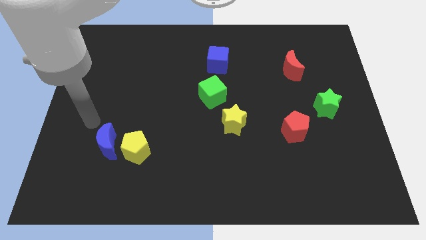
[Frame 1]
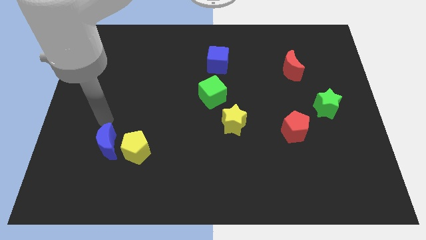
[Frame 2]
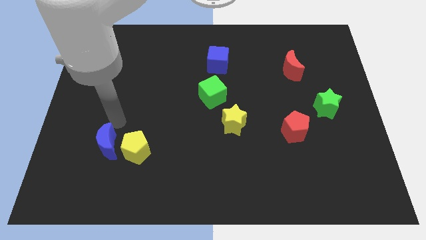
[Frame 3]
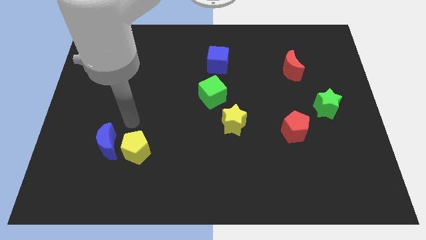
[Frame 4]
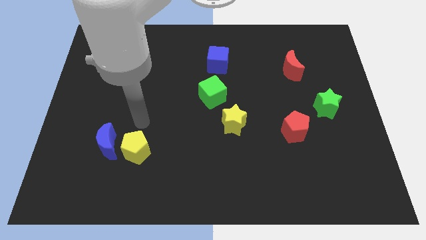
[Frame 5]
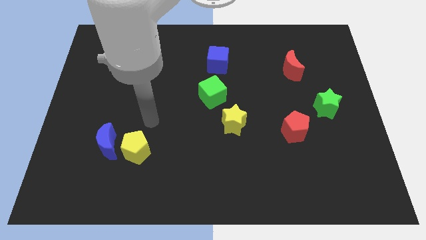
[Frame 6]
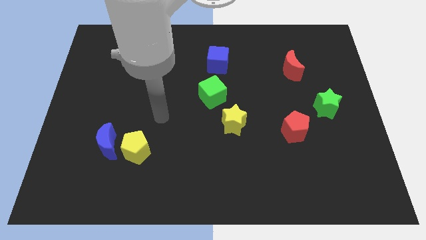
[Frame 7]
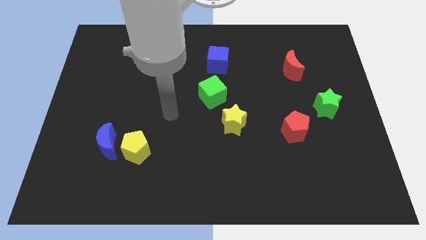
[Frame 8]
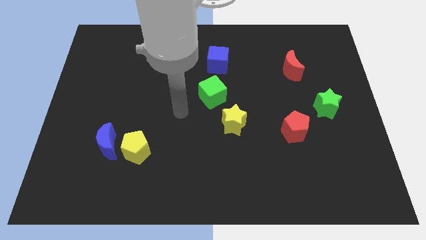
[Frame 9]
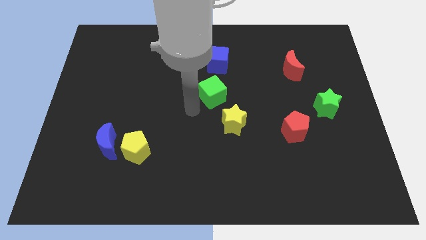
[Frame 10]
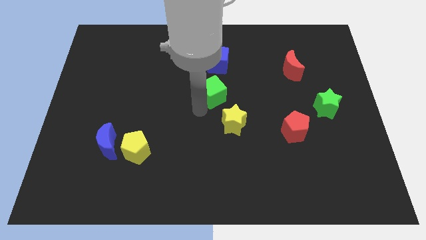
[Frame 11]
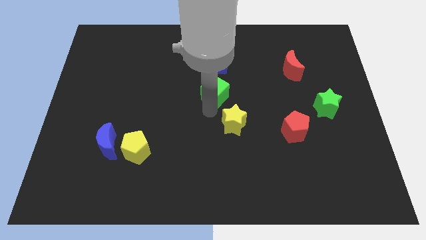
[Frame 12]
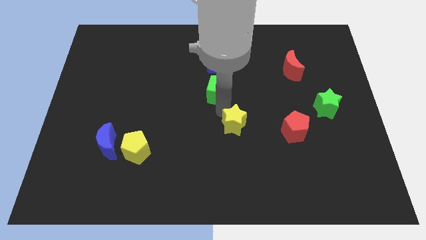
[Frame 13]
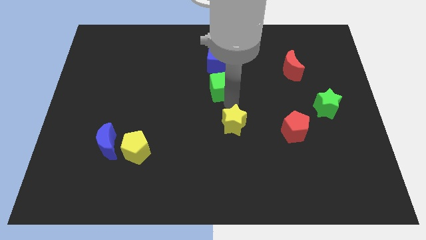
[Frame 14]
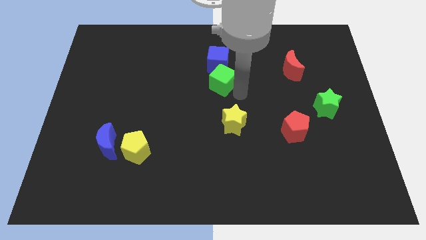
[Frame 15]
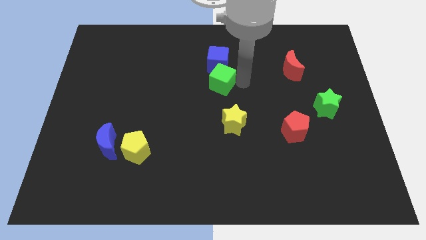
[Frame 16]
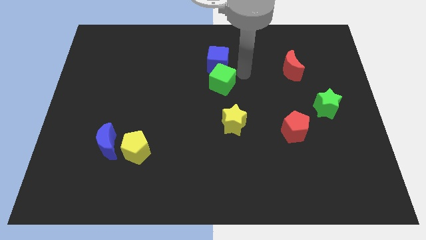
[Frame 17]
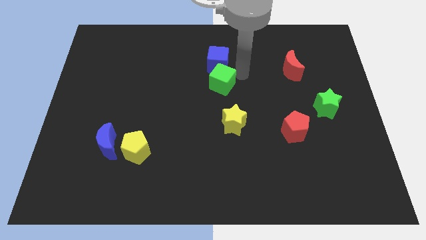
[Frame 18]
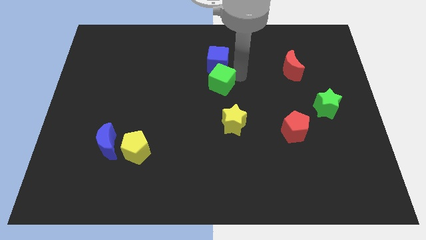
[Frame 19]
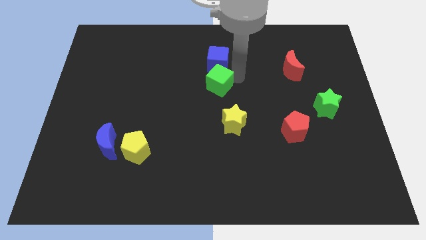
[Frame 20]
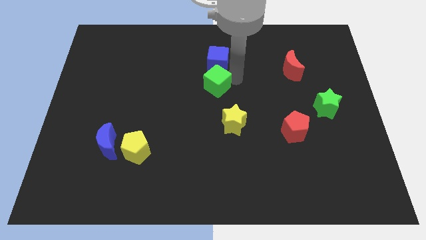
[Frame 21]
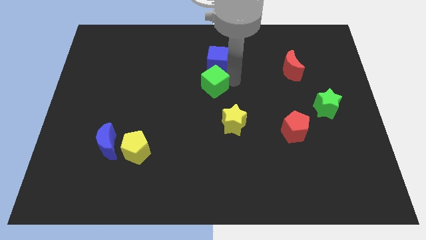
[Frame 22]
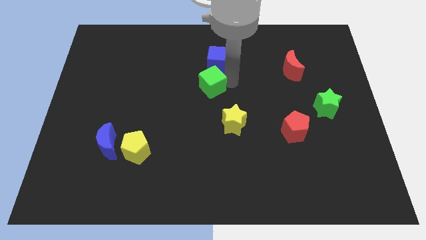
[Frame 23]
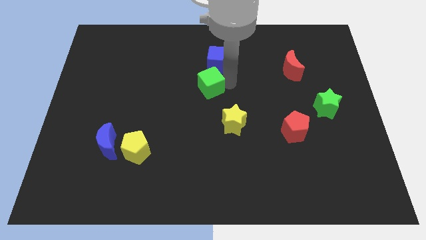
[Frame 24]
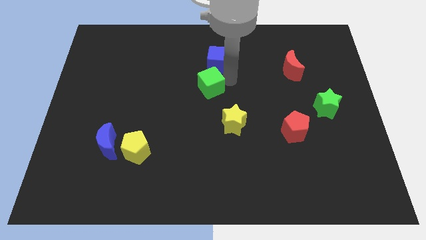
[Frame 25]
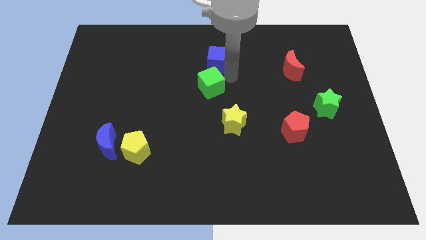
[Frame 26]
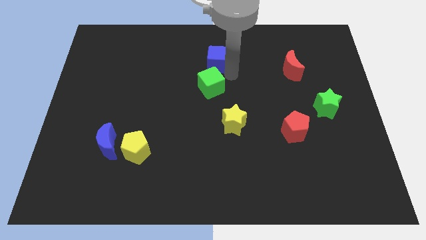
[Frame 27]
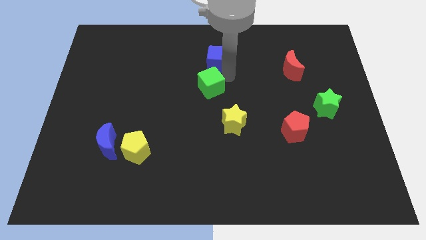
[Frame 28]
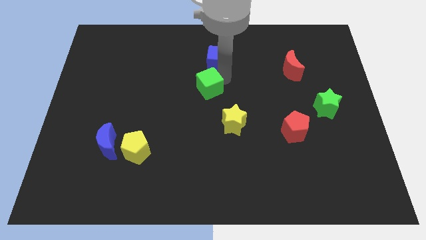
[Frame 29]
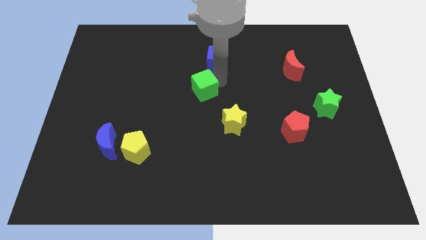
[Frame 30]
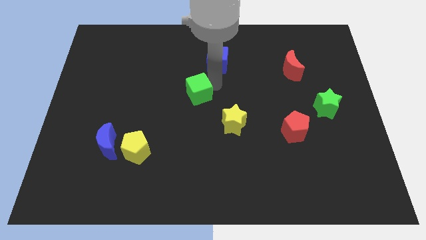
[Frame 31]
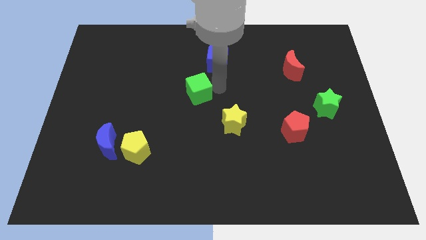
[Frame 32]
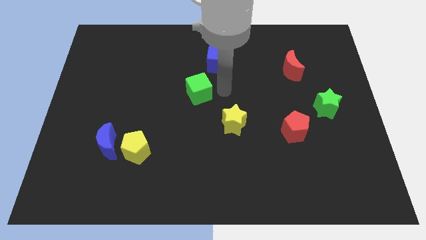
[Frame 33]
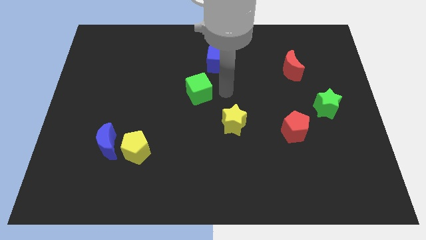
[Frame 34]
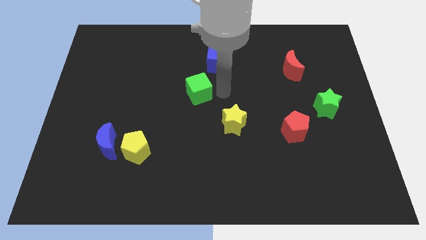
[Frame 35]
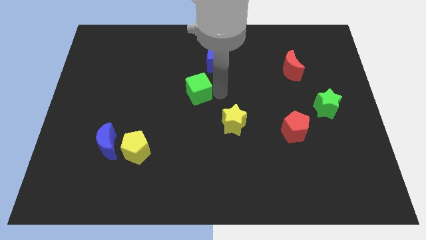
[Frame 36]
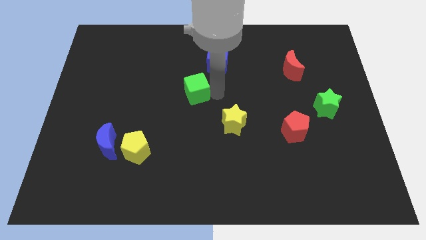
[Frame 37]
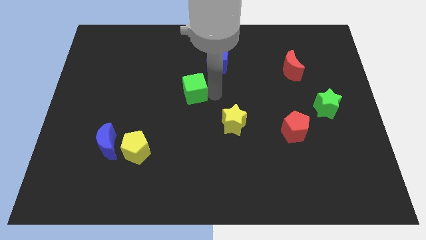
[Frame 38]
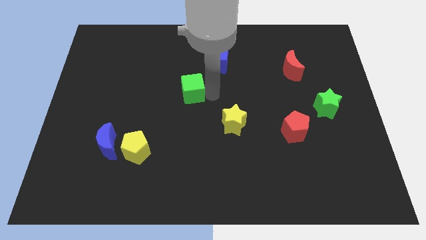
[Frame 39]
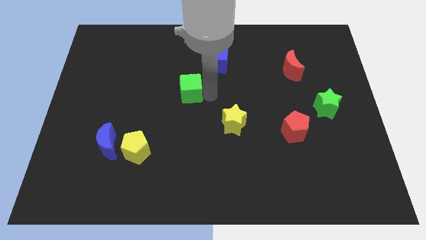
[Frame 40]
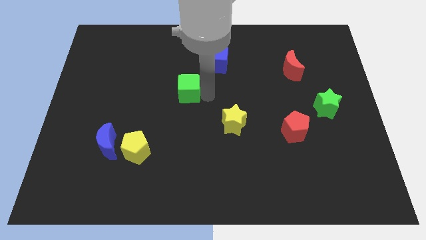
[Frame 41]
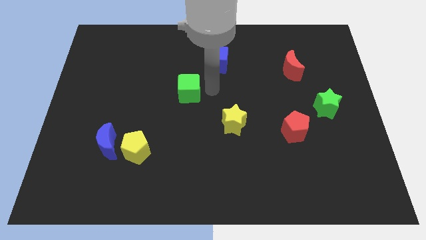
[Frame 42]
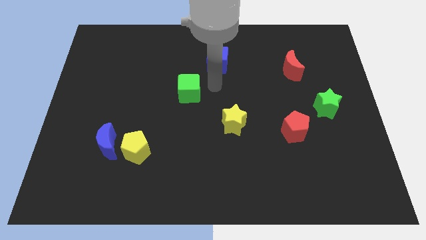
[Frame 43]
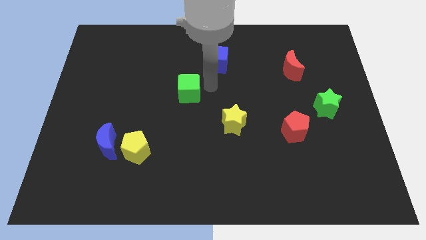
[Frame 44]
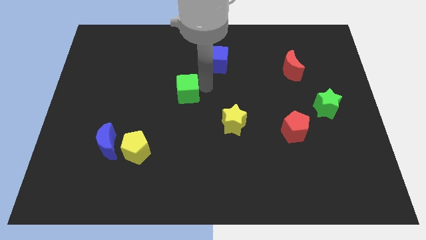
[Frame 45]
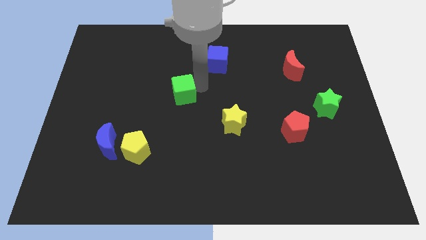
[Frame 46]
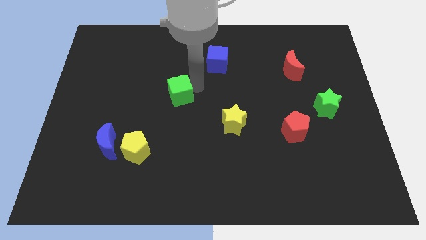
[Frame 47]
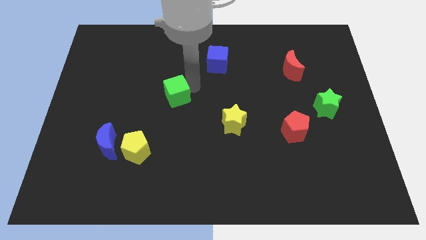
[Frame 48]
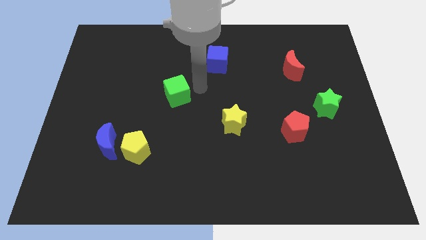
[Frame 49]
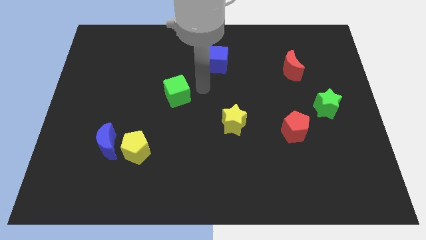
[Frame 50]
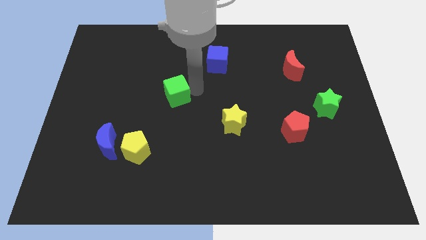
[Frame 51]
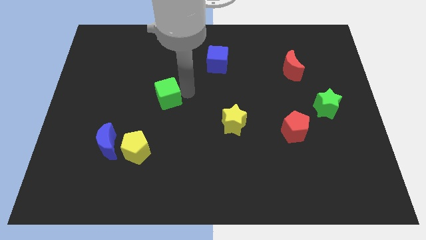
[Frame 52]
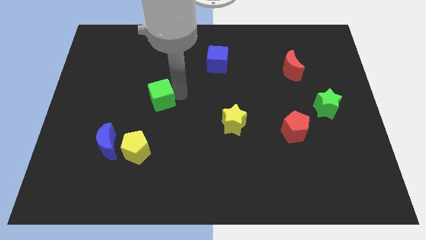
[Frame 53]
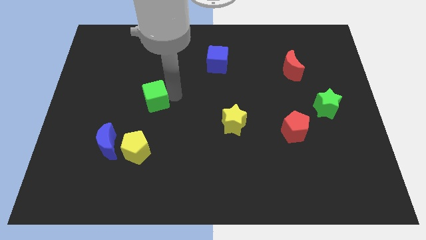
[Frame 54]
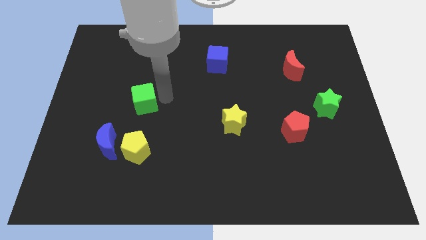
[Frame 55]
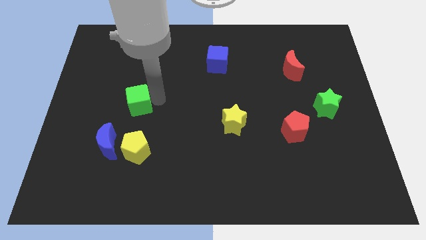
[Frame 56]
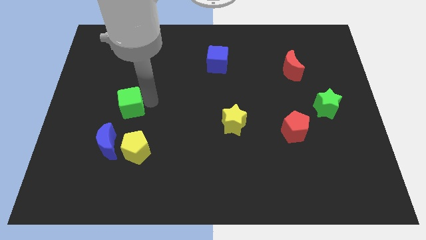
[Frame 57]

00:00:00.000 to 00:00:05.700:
slide the green cube to the top side of the blue moon

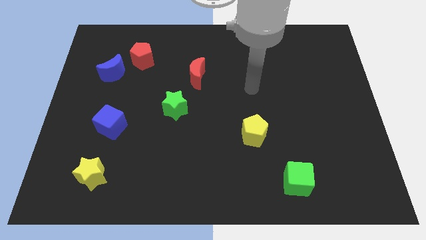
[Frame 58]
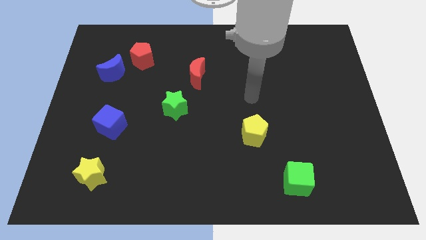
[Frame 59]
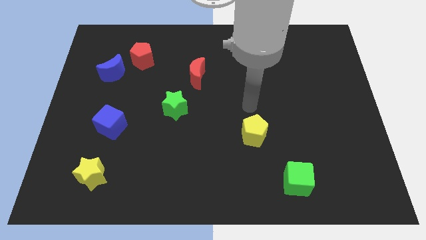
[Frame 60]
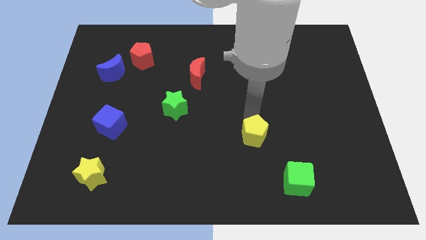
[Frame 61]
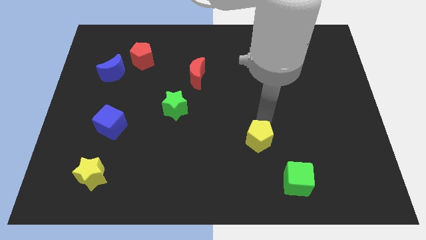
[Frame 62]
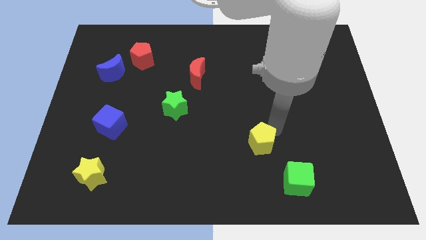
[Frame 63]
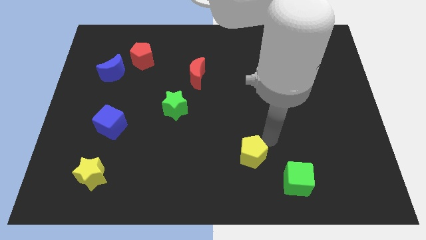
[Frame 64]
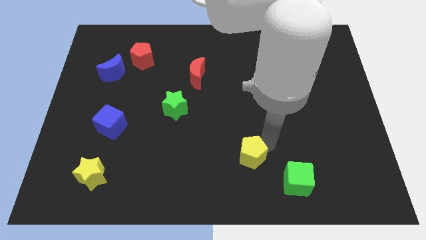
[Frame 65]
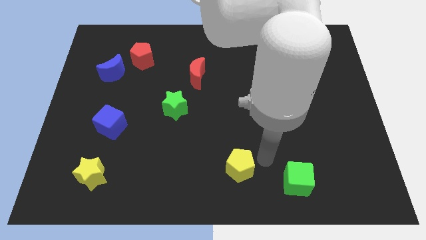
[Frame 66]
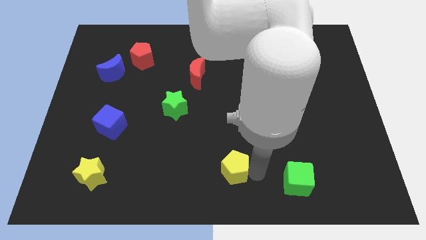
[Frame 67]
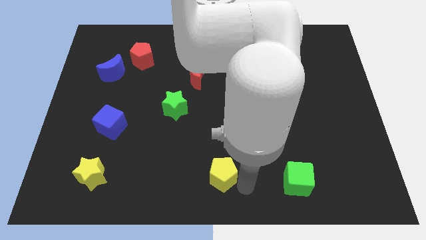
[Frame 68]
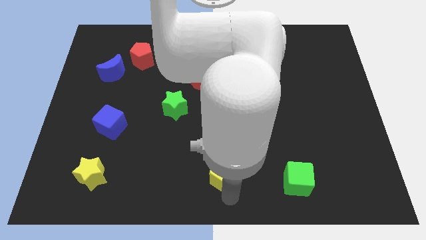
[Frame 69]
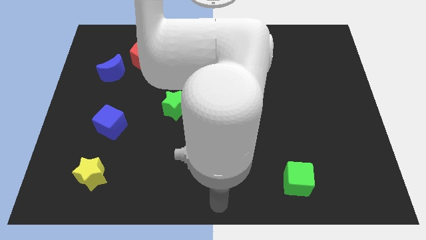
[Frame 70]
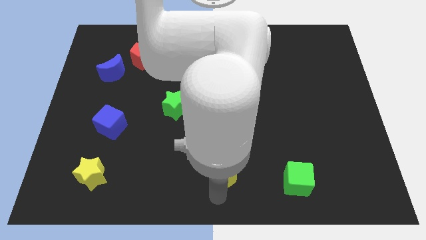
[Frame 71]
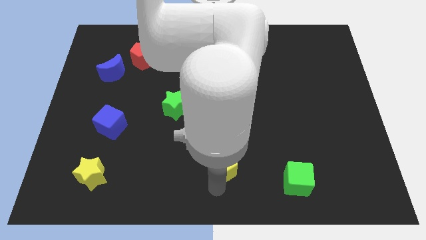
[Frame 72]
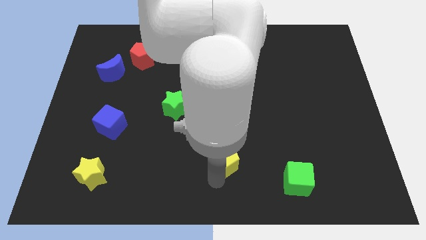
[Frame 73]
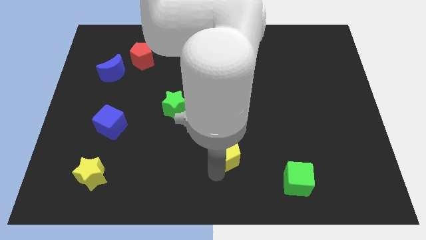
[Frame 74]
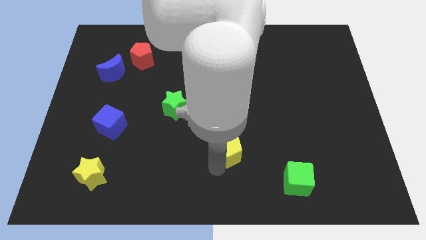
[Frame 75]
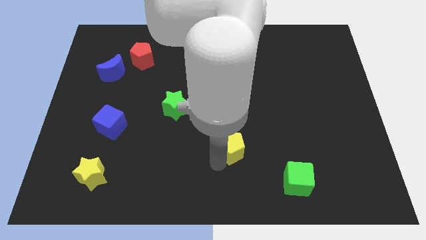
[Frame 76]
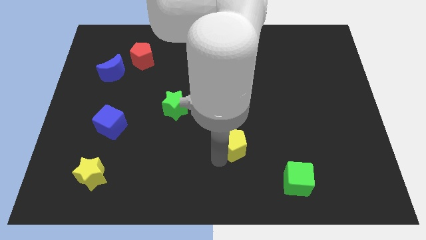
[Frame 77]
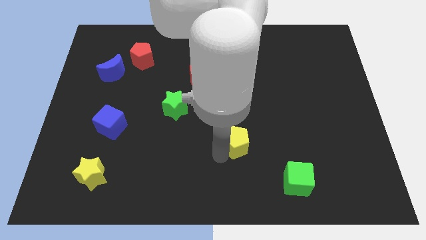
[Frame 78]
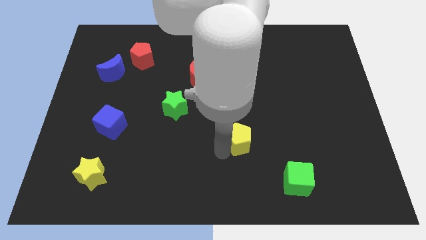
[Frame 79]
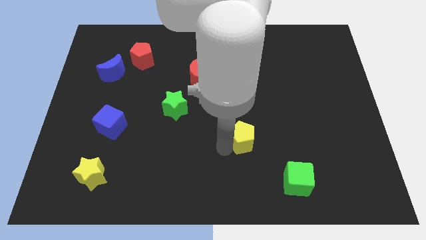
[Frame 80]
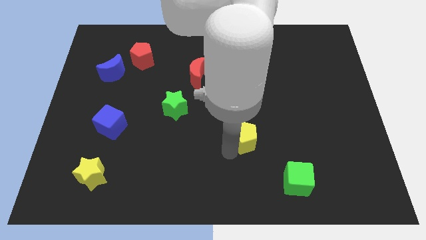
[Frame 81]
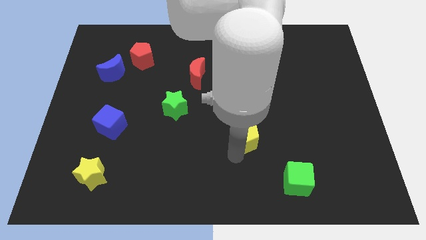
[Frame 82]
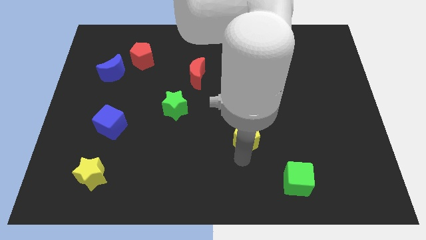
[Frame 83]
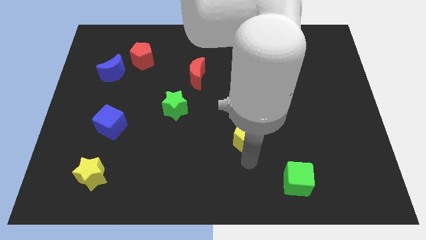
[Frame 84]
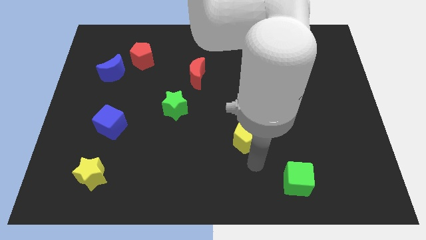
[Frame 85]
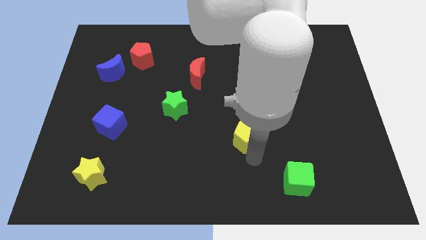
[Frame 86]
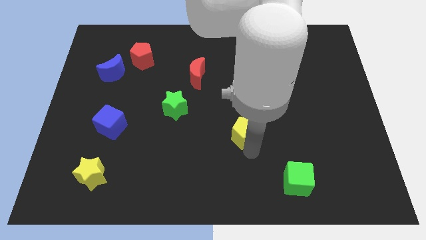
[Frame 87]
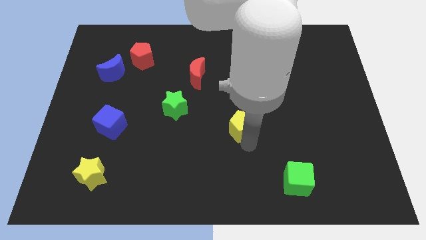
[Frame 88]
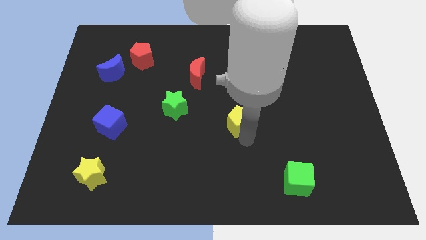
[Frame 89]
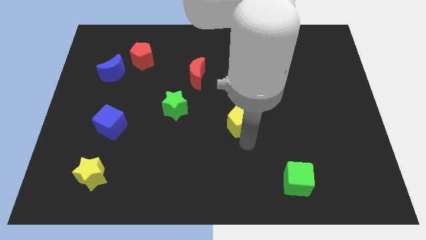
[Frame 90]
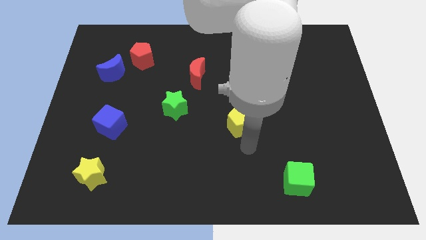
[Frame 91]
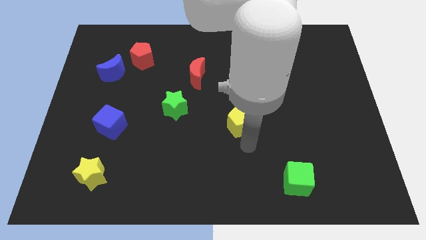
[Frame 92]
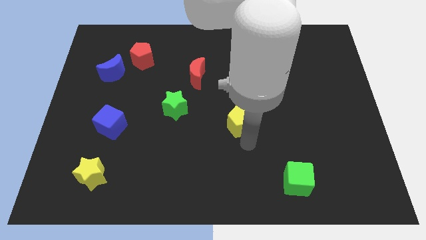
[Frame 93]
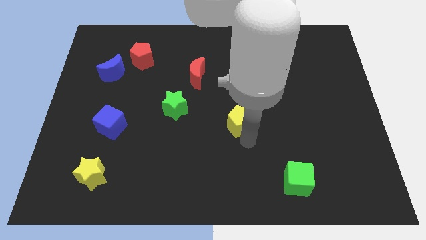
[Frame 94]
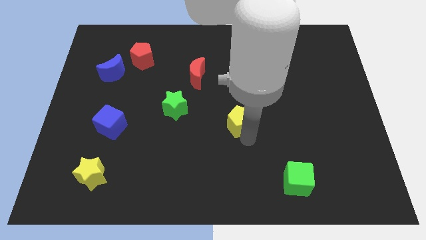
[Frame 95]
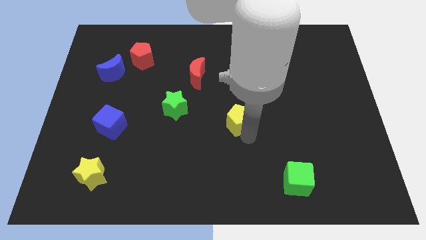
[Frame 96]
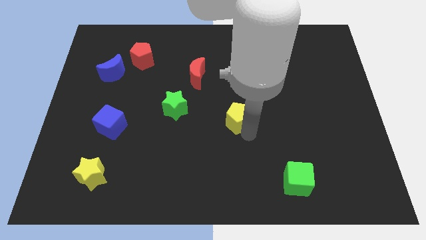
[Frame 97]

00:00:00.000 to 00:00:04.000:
put the yellow pentagon right of the green star
